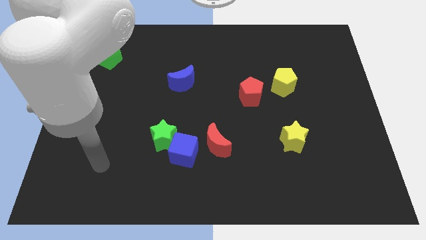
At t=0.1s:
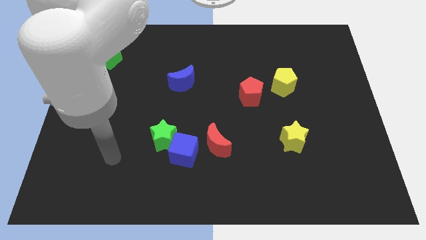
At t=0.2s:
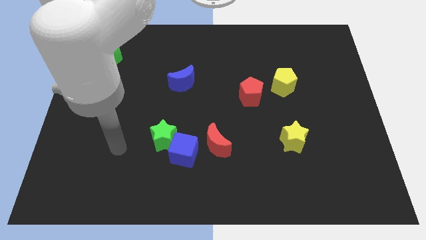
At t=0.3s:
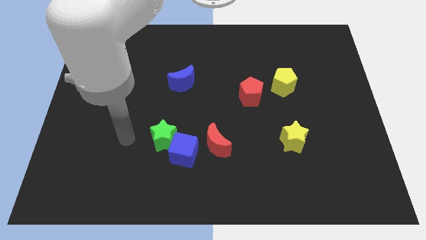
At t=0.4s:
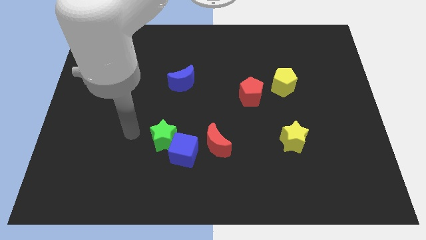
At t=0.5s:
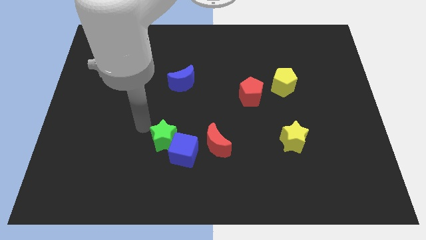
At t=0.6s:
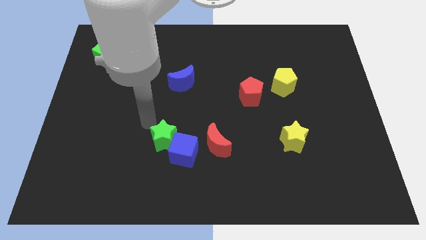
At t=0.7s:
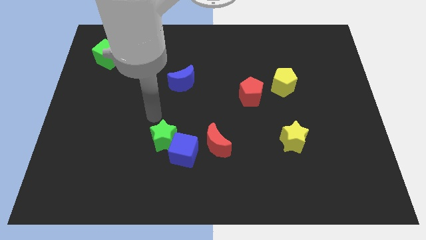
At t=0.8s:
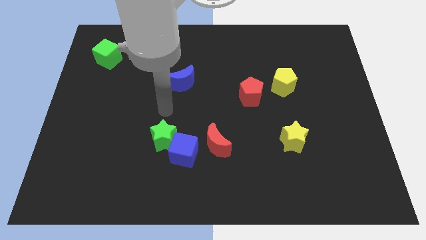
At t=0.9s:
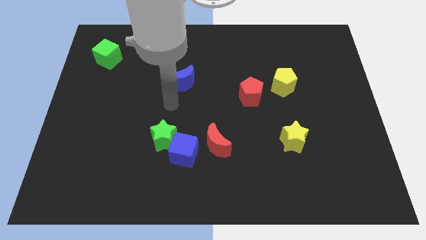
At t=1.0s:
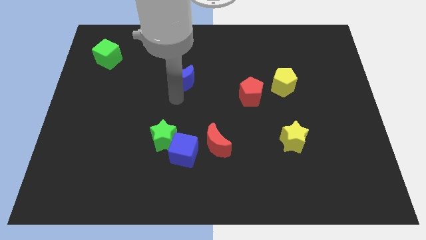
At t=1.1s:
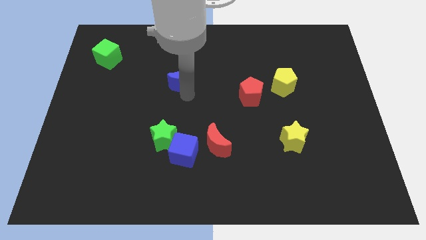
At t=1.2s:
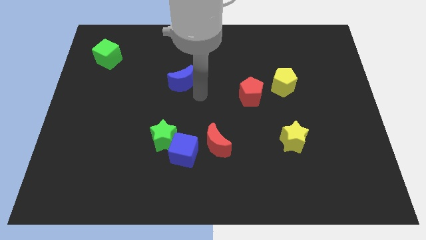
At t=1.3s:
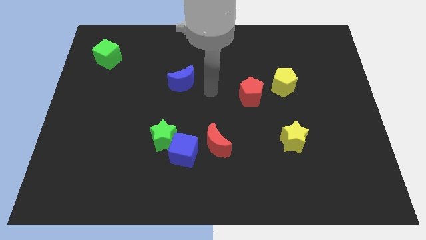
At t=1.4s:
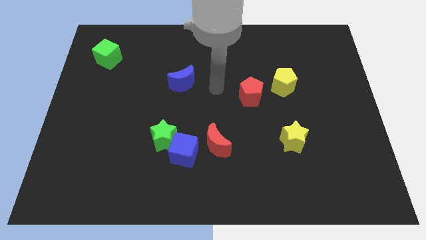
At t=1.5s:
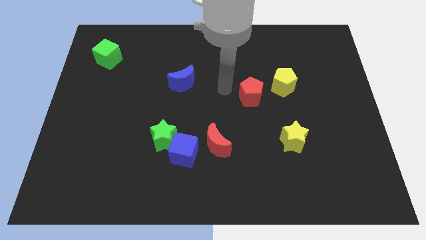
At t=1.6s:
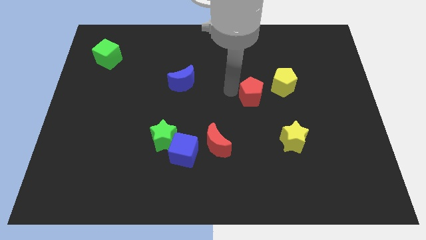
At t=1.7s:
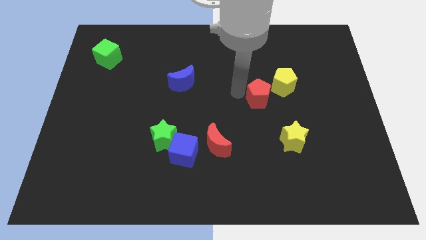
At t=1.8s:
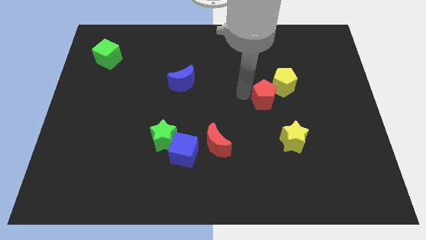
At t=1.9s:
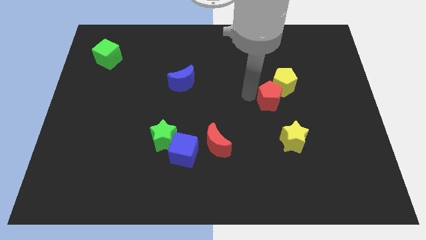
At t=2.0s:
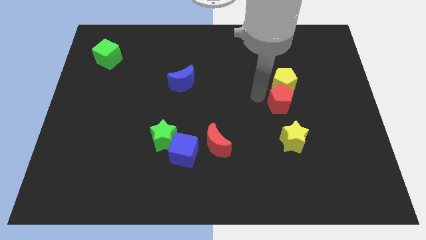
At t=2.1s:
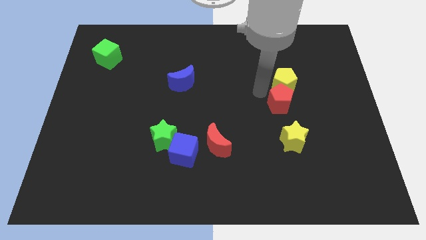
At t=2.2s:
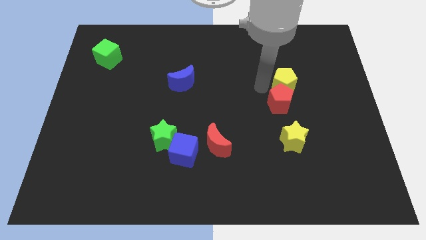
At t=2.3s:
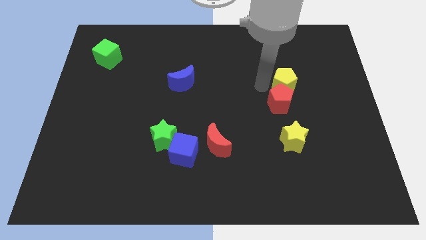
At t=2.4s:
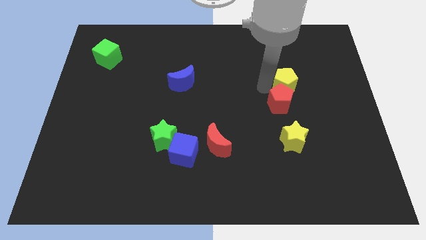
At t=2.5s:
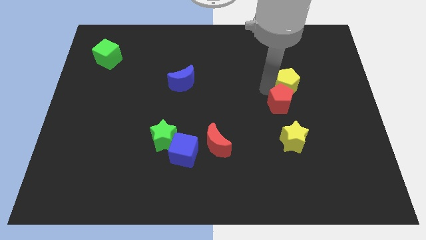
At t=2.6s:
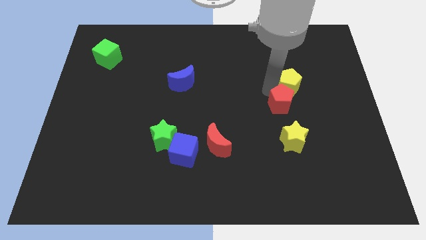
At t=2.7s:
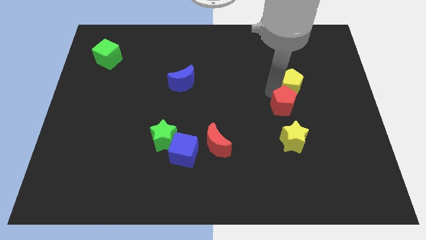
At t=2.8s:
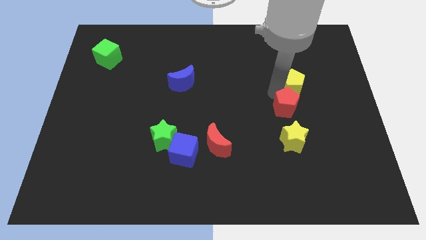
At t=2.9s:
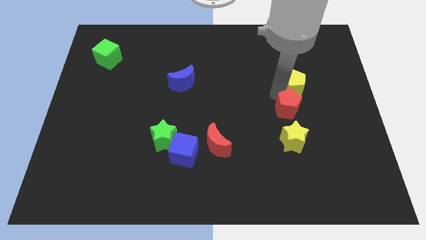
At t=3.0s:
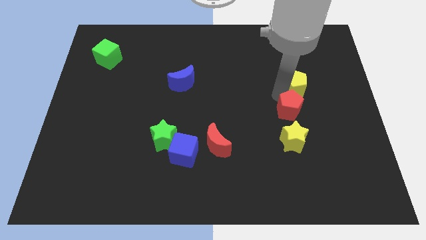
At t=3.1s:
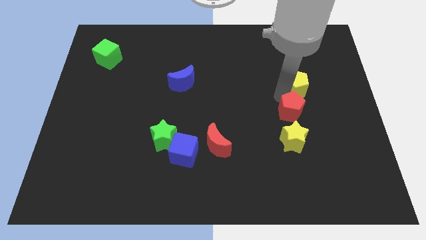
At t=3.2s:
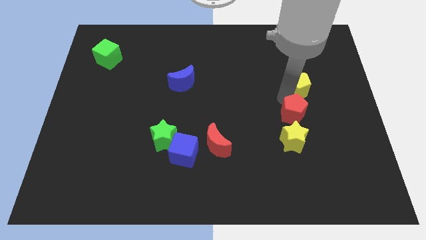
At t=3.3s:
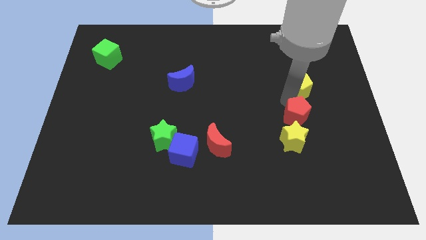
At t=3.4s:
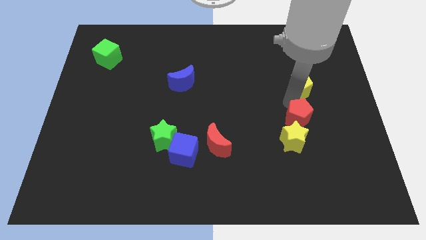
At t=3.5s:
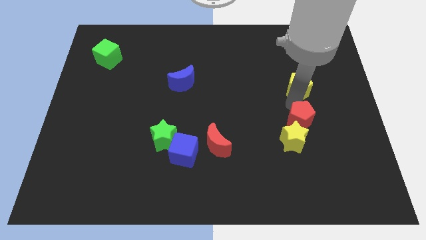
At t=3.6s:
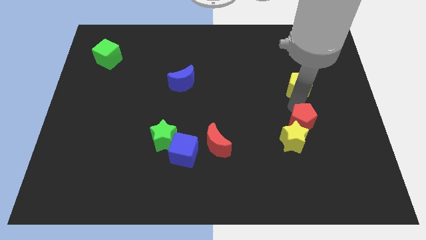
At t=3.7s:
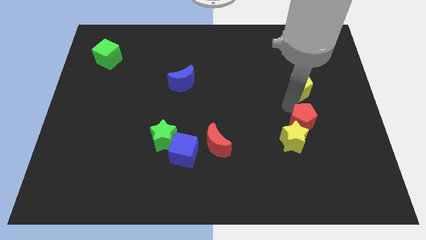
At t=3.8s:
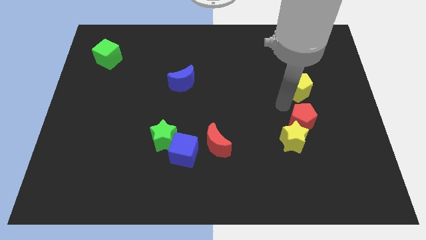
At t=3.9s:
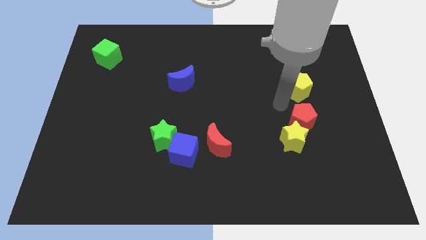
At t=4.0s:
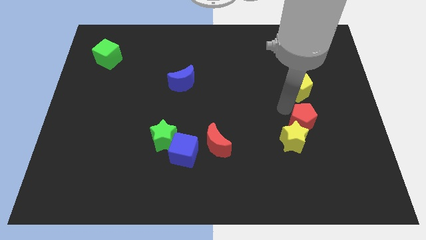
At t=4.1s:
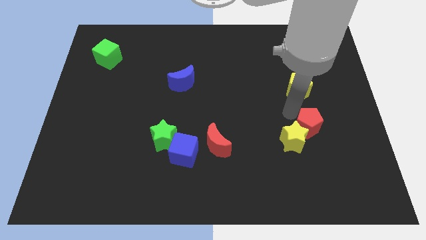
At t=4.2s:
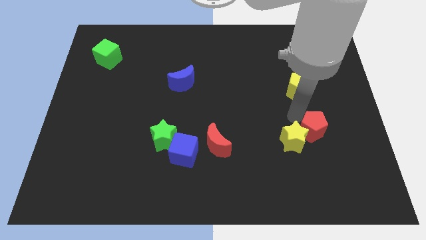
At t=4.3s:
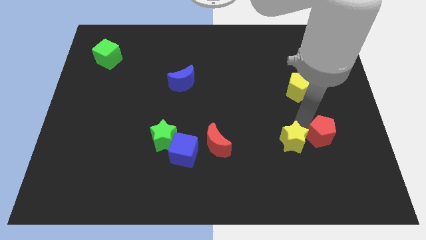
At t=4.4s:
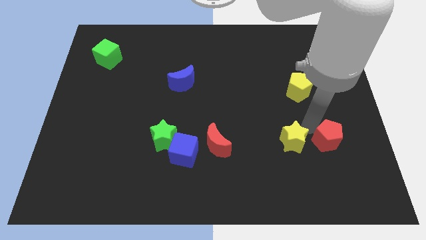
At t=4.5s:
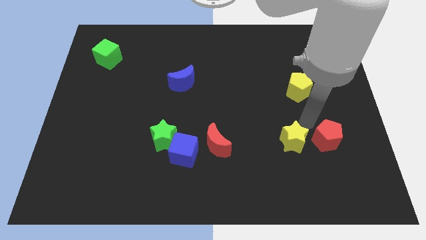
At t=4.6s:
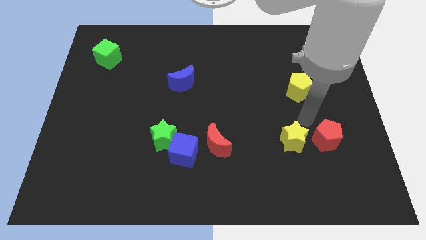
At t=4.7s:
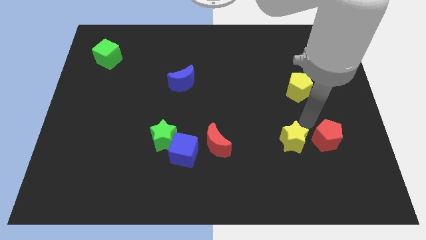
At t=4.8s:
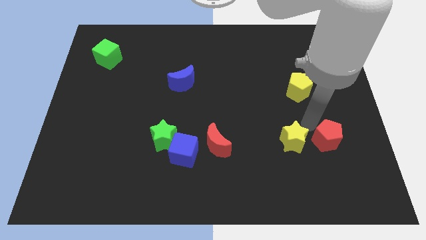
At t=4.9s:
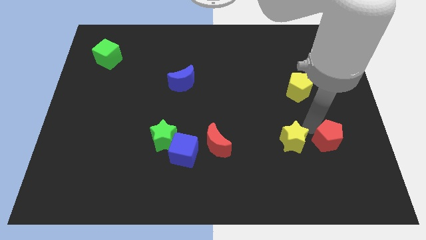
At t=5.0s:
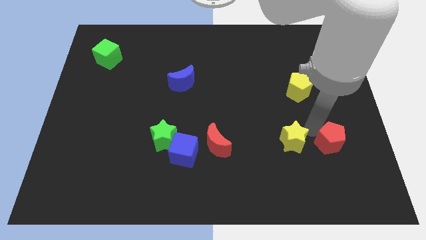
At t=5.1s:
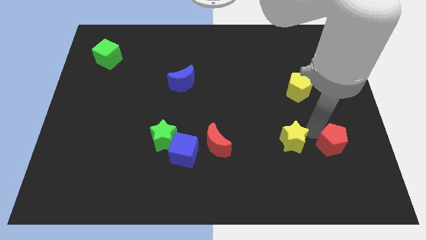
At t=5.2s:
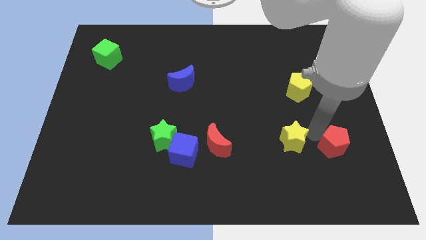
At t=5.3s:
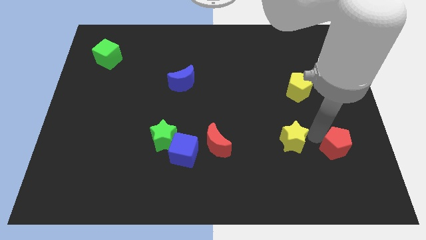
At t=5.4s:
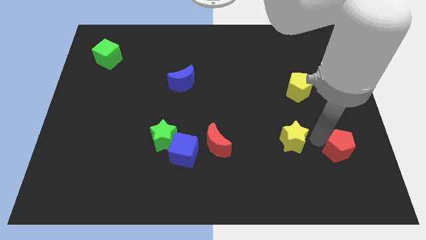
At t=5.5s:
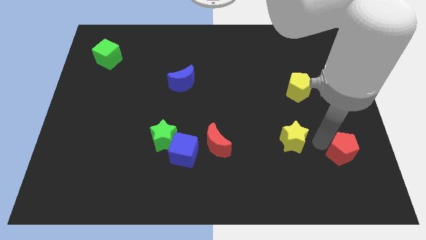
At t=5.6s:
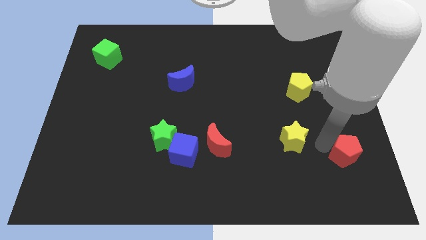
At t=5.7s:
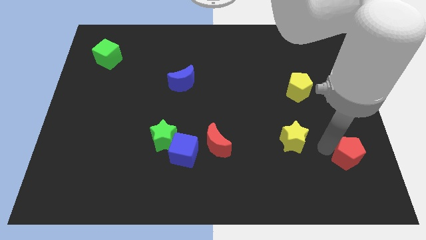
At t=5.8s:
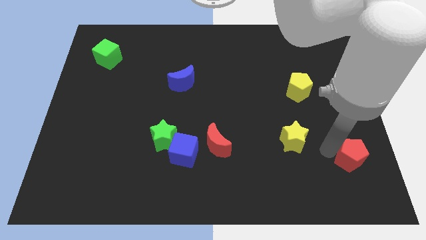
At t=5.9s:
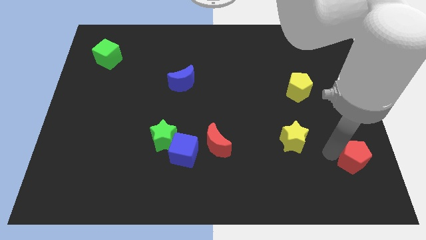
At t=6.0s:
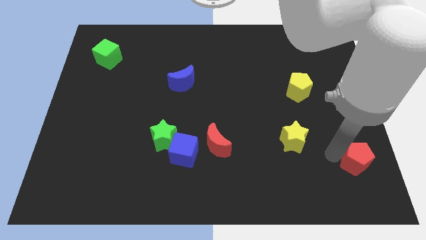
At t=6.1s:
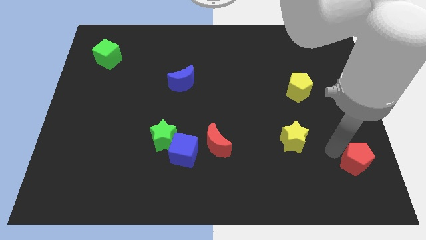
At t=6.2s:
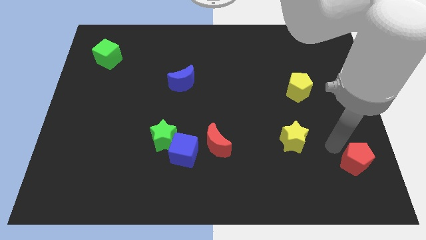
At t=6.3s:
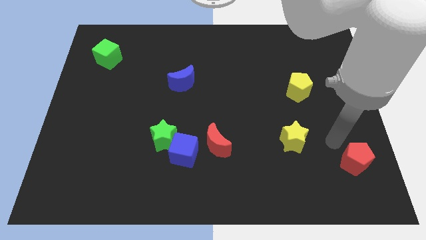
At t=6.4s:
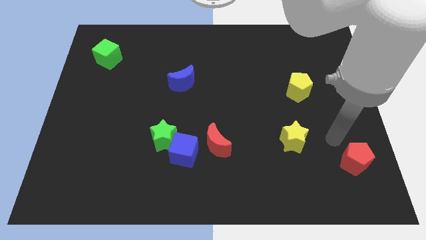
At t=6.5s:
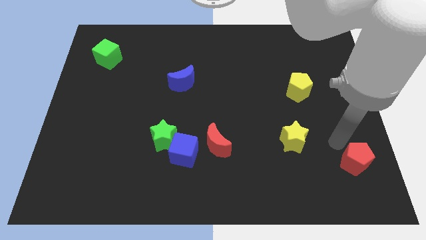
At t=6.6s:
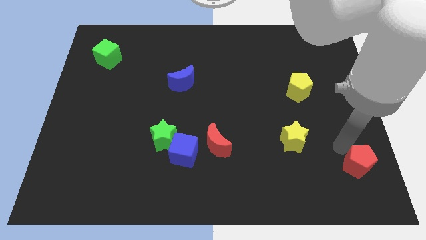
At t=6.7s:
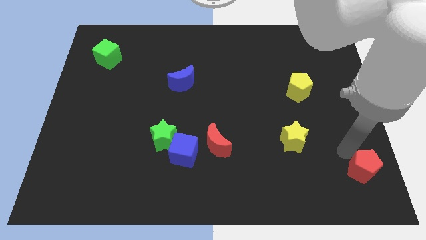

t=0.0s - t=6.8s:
move the red pentagon to the bottom right

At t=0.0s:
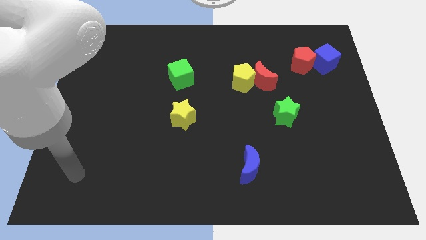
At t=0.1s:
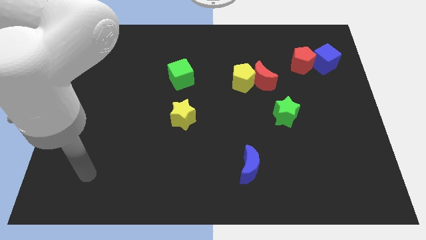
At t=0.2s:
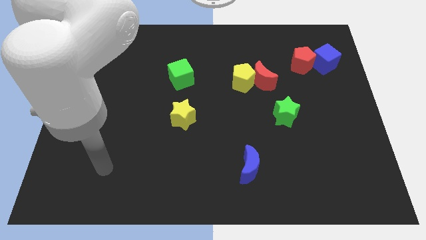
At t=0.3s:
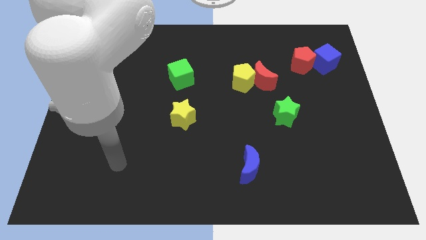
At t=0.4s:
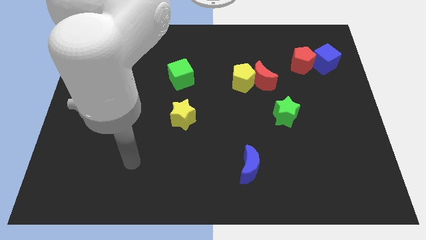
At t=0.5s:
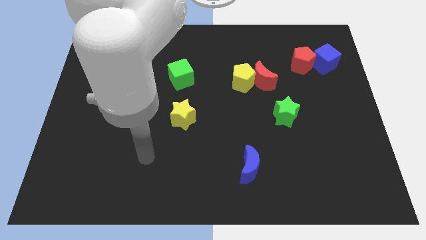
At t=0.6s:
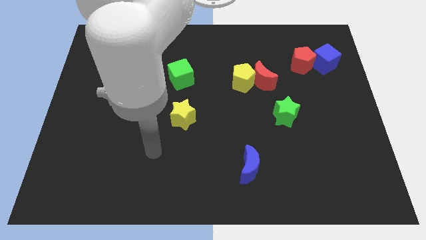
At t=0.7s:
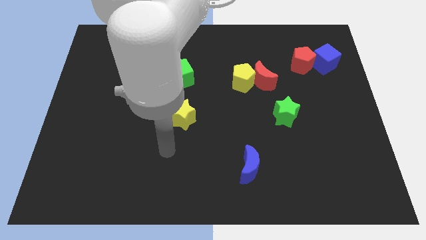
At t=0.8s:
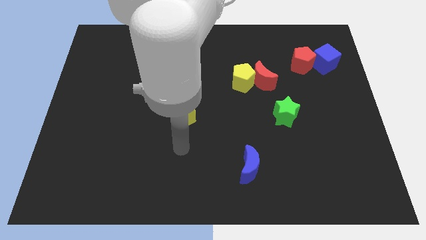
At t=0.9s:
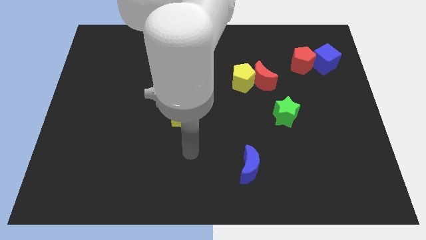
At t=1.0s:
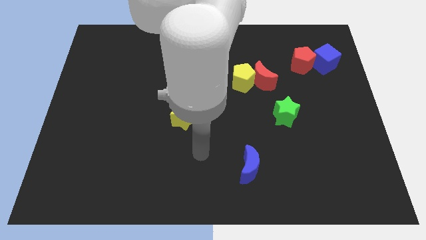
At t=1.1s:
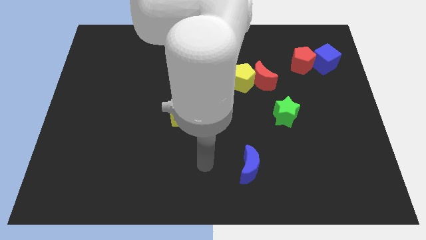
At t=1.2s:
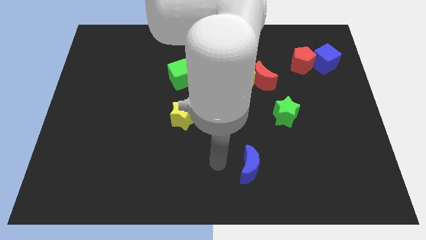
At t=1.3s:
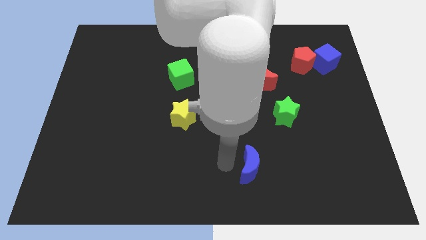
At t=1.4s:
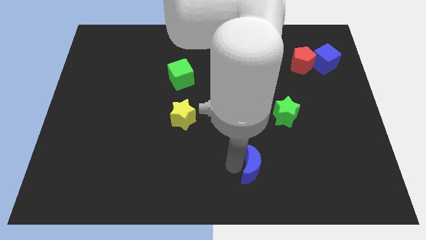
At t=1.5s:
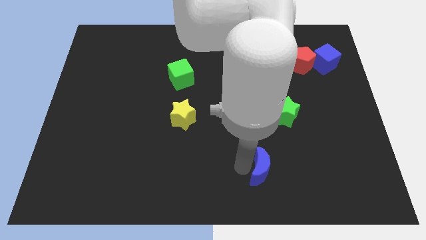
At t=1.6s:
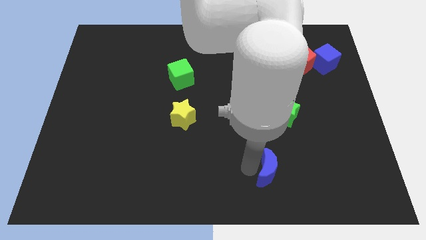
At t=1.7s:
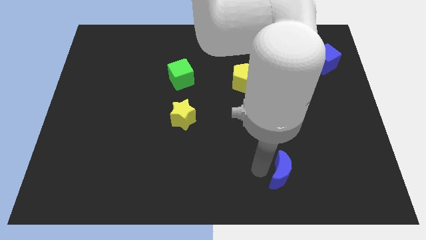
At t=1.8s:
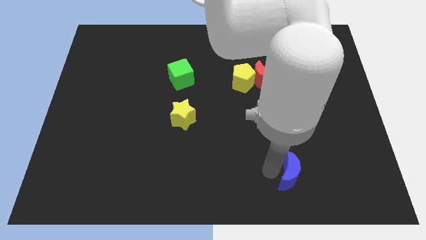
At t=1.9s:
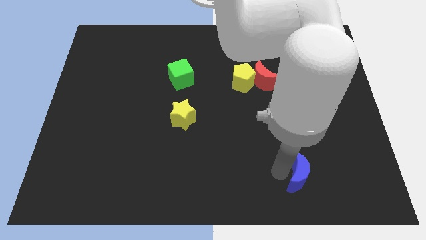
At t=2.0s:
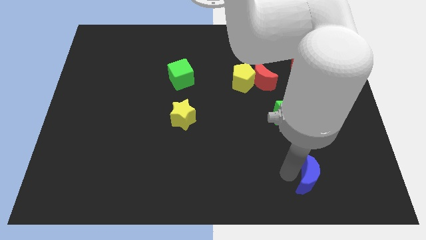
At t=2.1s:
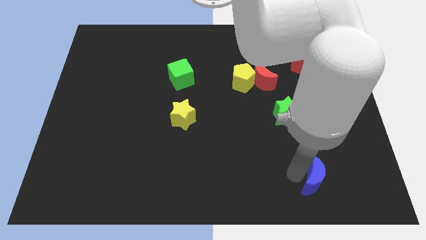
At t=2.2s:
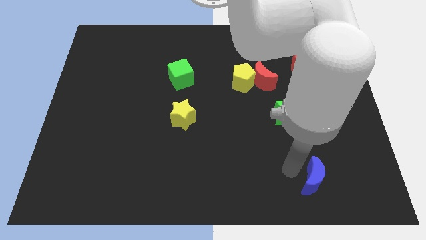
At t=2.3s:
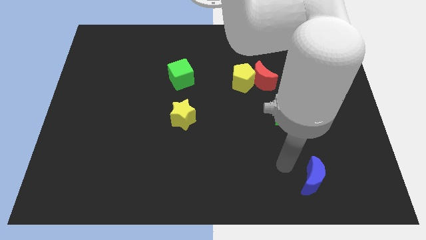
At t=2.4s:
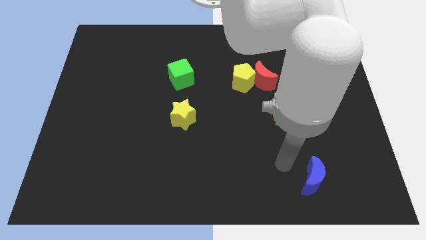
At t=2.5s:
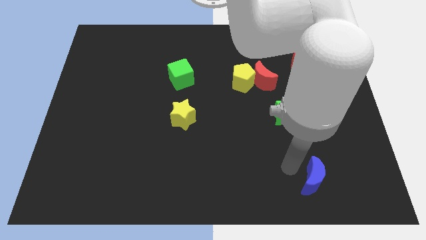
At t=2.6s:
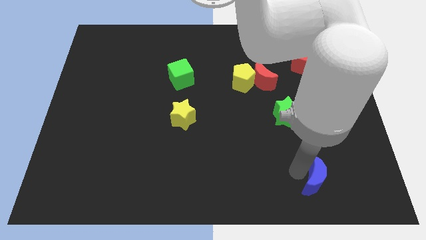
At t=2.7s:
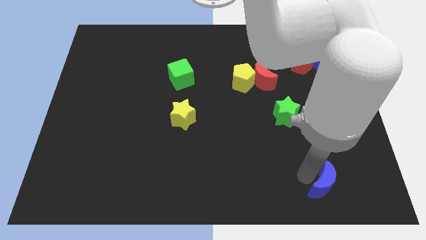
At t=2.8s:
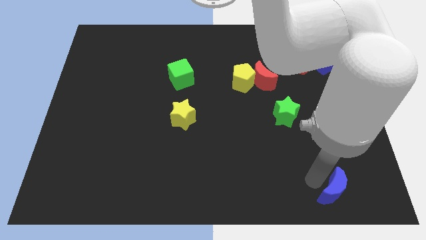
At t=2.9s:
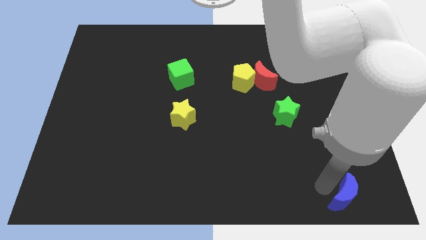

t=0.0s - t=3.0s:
move the blue moon to the bottom right corner
